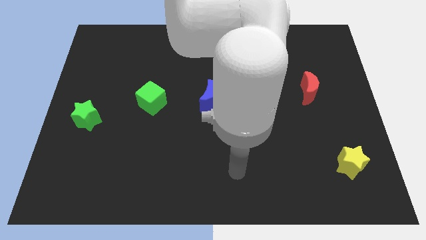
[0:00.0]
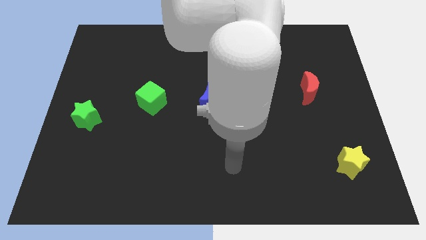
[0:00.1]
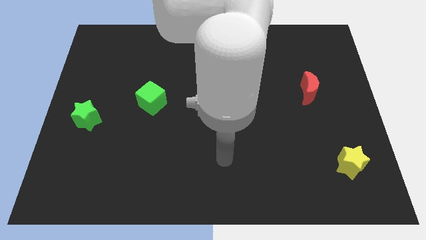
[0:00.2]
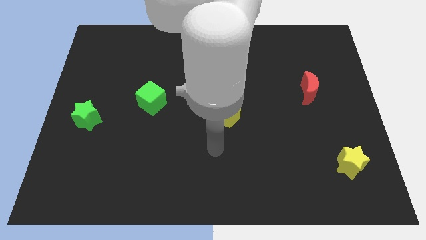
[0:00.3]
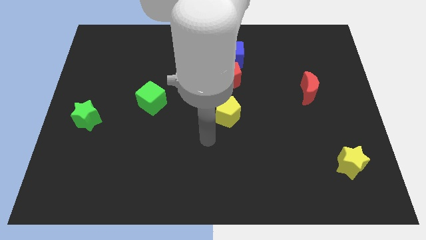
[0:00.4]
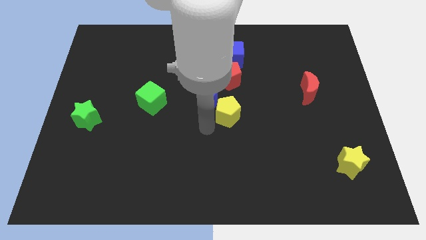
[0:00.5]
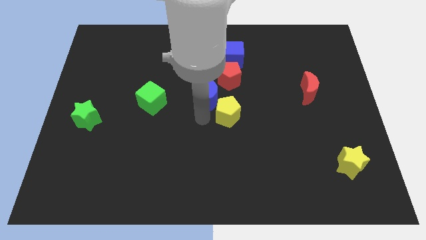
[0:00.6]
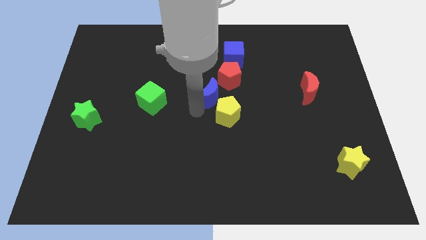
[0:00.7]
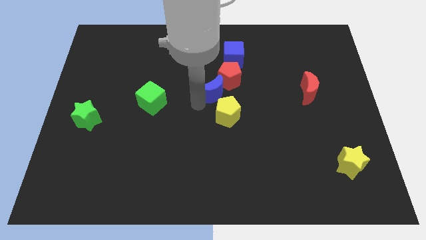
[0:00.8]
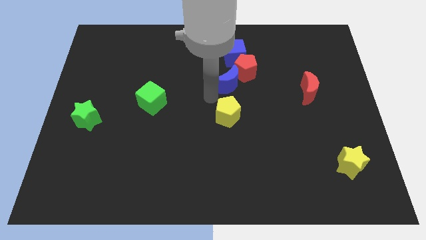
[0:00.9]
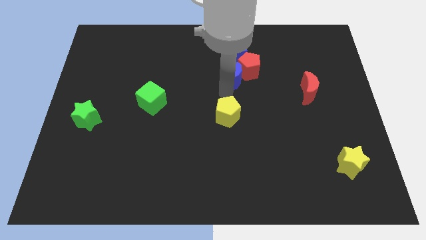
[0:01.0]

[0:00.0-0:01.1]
pull the yellow pentagon apart from the blue moon

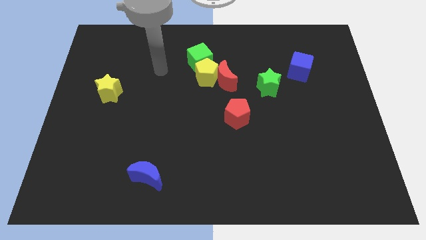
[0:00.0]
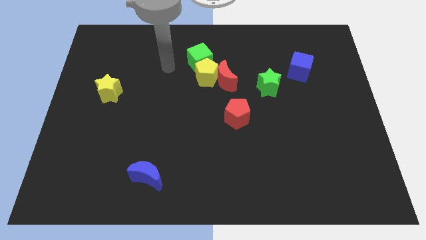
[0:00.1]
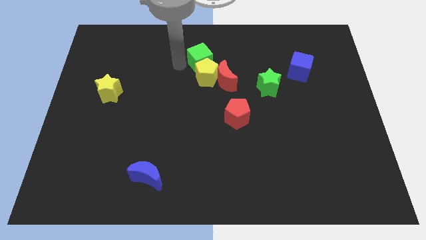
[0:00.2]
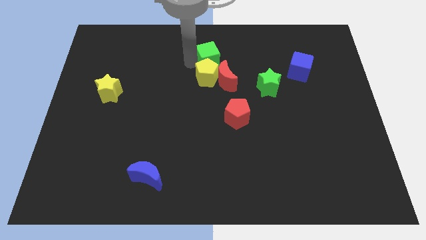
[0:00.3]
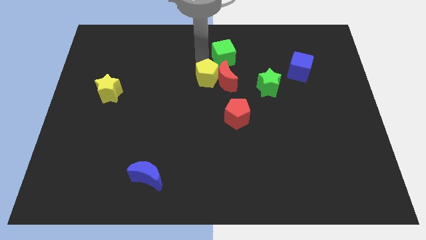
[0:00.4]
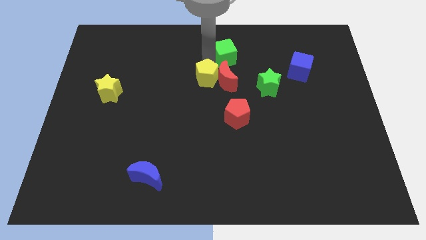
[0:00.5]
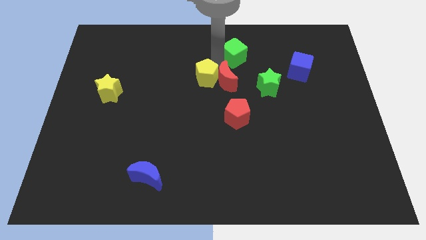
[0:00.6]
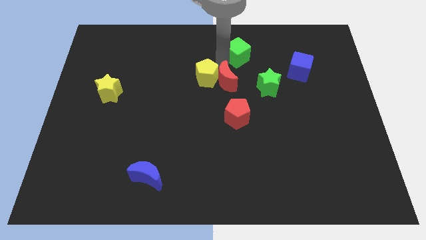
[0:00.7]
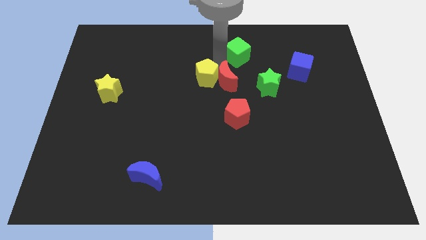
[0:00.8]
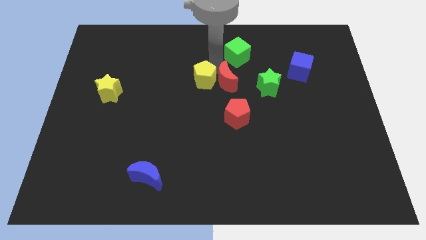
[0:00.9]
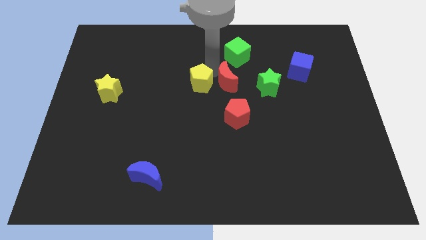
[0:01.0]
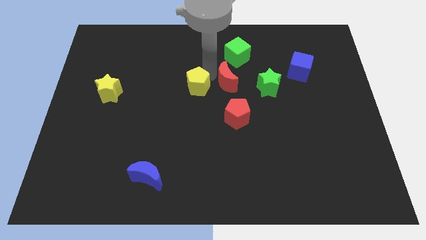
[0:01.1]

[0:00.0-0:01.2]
pull the yellow pentagon apart from the red moon and green cube

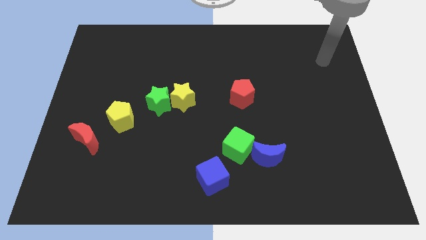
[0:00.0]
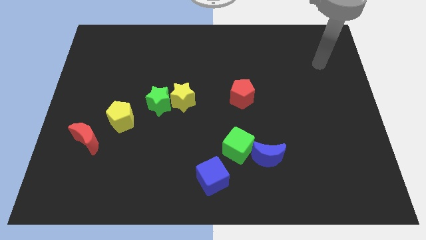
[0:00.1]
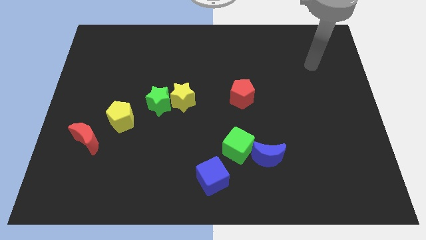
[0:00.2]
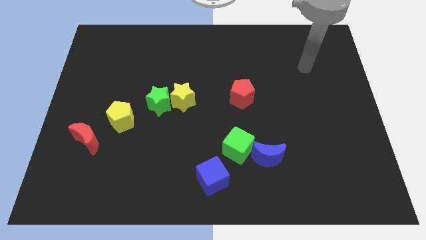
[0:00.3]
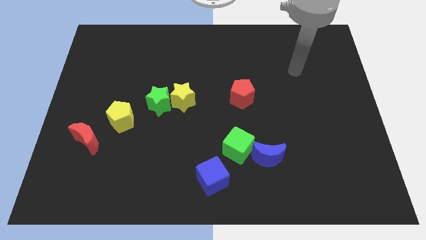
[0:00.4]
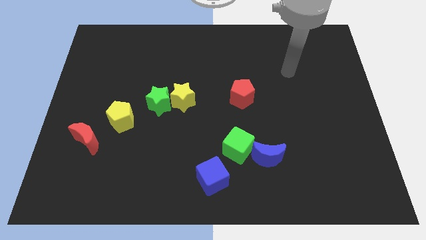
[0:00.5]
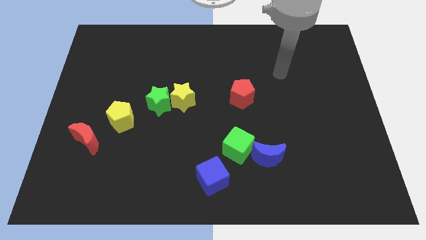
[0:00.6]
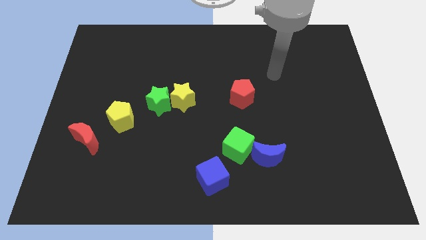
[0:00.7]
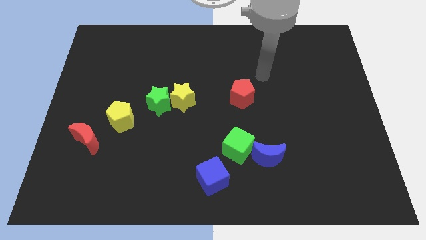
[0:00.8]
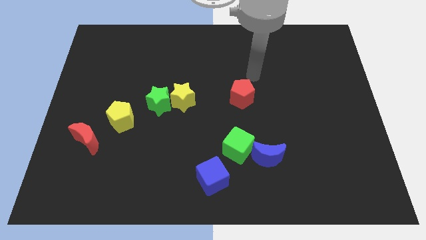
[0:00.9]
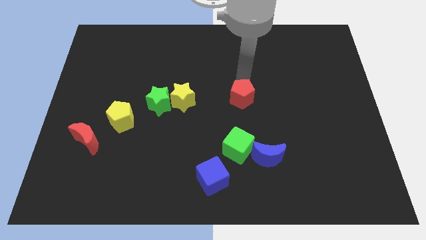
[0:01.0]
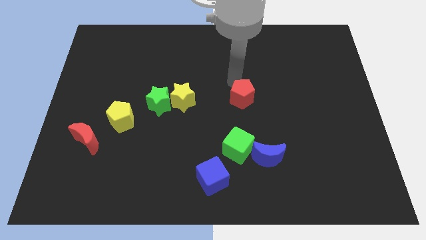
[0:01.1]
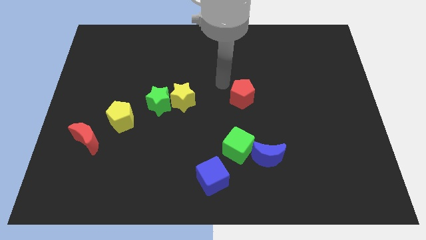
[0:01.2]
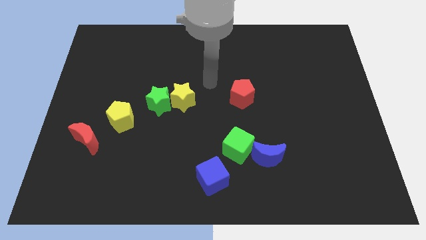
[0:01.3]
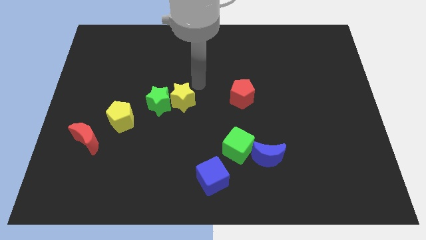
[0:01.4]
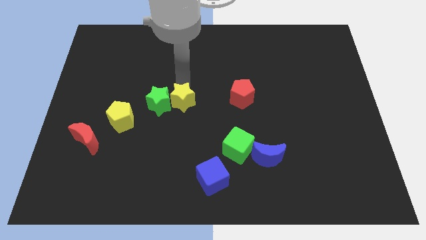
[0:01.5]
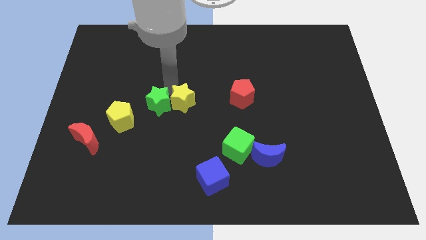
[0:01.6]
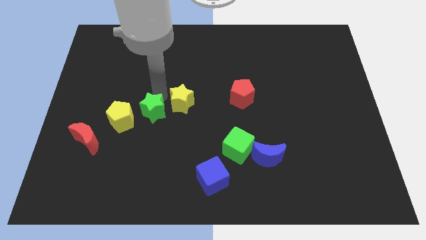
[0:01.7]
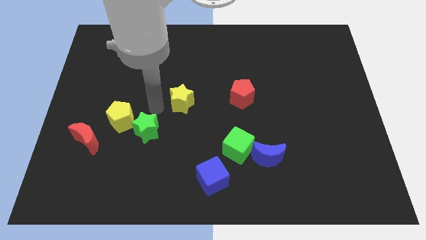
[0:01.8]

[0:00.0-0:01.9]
move the yellow star away from the green star

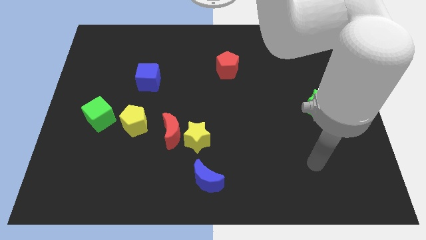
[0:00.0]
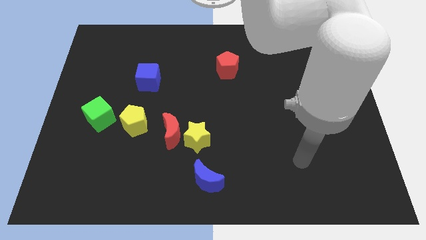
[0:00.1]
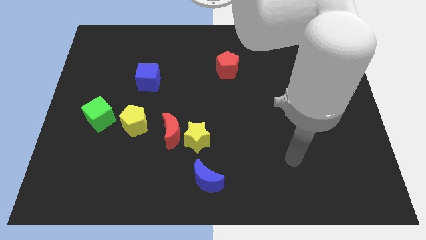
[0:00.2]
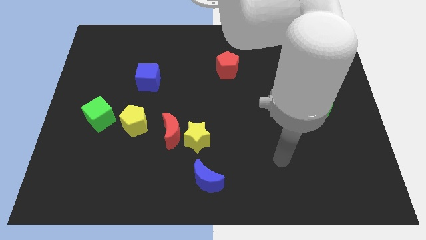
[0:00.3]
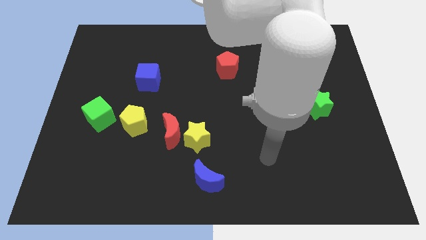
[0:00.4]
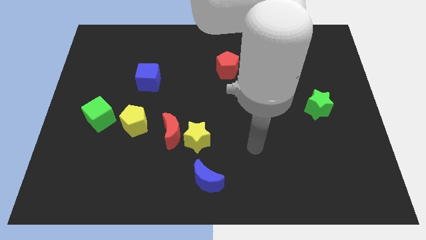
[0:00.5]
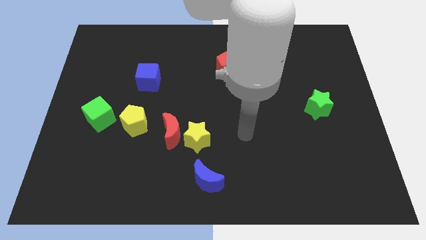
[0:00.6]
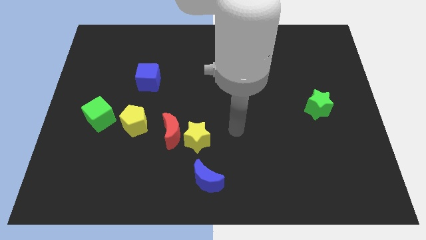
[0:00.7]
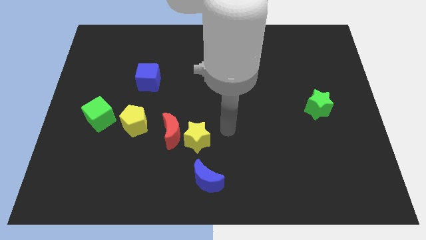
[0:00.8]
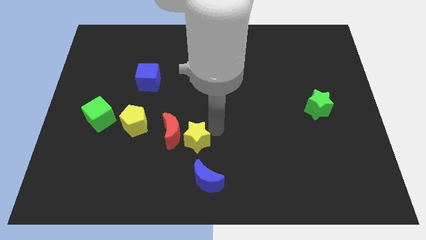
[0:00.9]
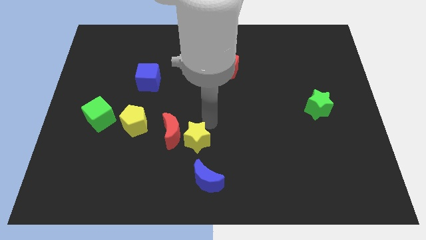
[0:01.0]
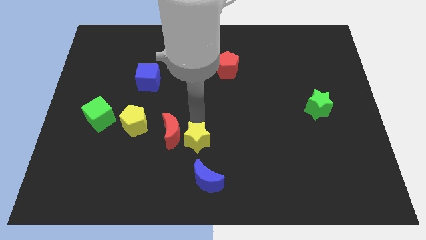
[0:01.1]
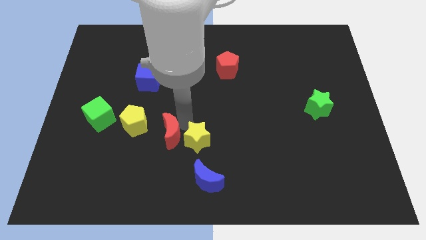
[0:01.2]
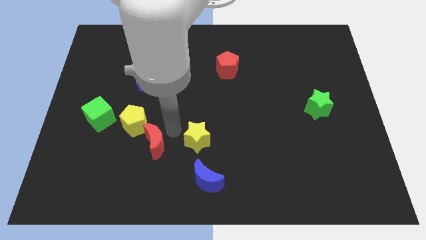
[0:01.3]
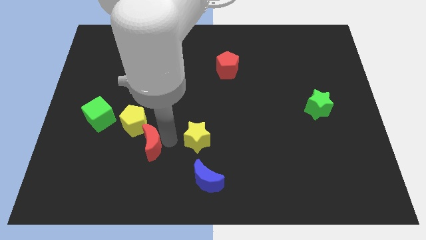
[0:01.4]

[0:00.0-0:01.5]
pull the yellow star apart from the red moon

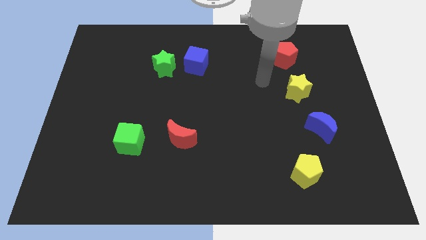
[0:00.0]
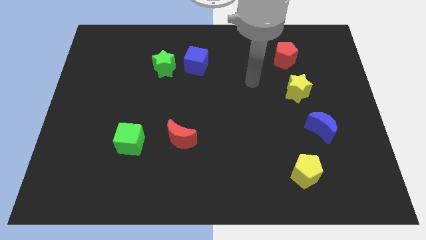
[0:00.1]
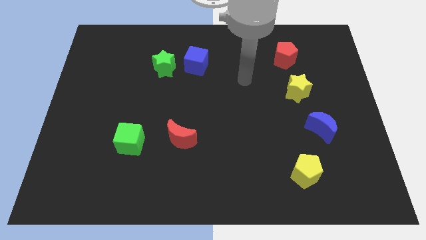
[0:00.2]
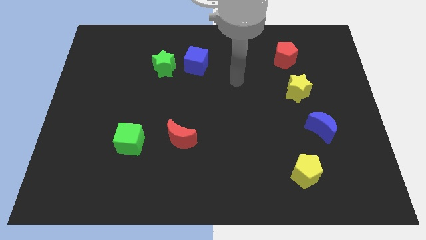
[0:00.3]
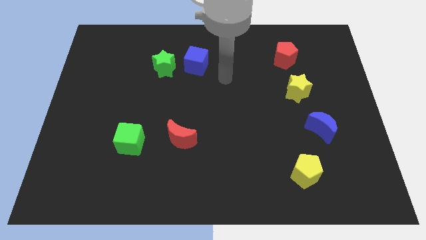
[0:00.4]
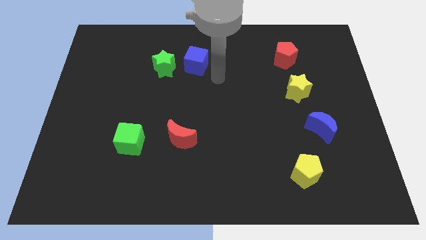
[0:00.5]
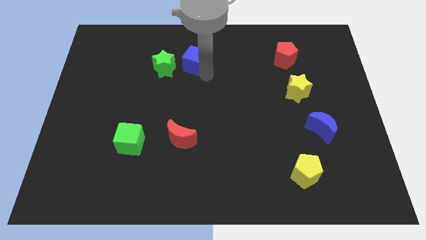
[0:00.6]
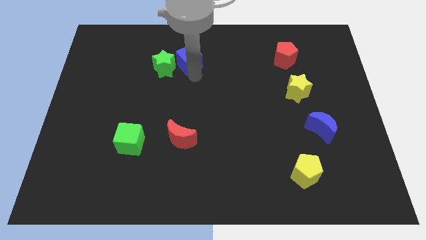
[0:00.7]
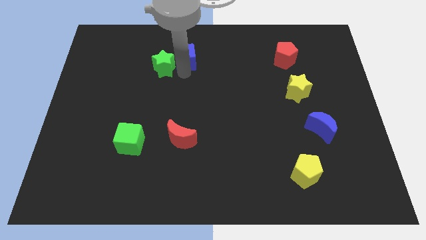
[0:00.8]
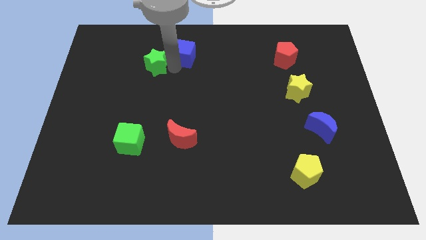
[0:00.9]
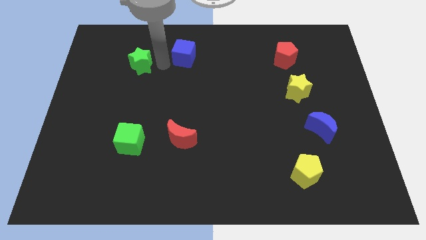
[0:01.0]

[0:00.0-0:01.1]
separate the blue cube from the green star

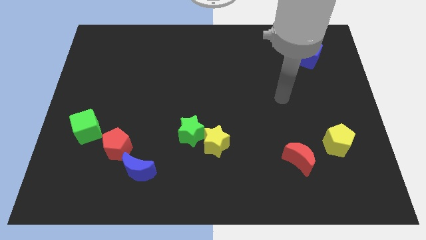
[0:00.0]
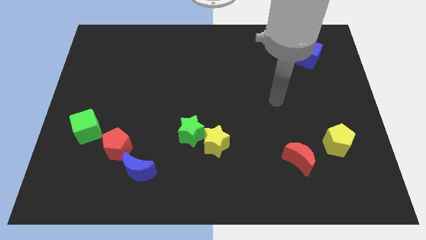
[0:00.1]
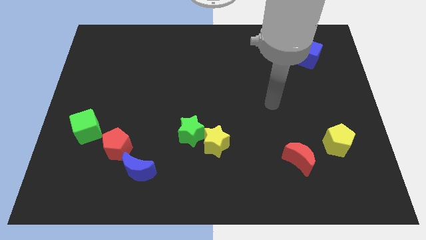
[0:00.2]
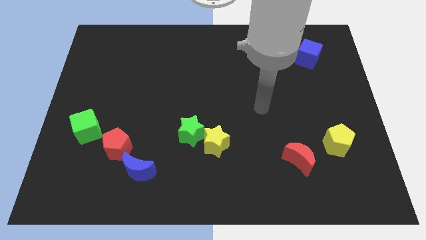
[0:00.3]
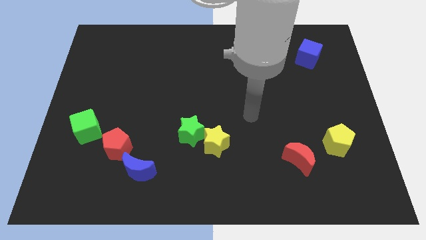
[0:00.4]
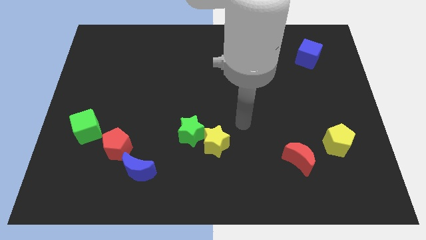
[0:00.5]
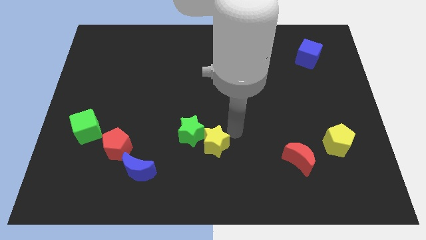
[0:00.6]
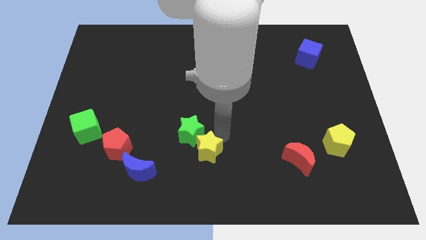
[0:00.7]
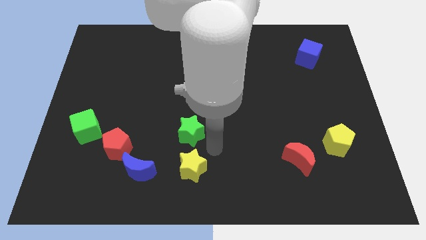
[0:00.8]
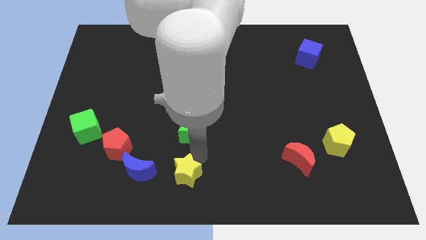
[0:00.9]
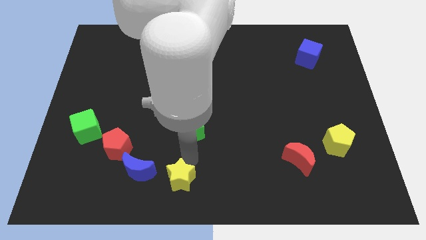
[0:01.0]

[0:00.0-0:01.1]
pull the green star apart from the yellow star

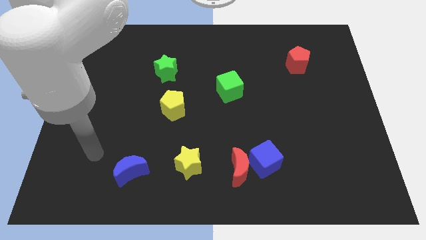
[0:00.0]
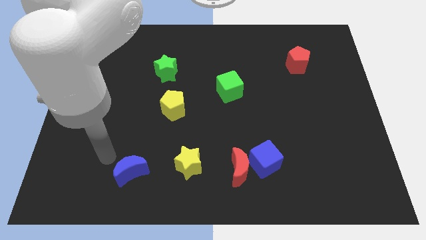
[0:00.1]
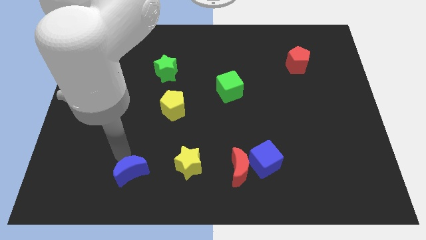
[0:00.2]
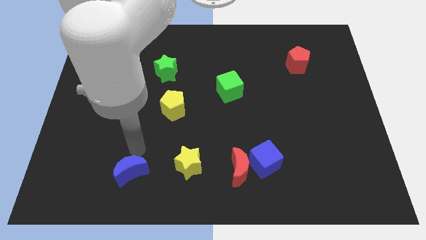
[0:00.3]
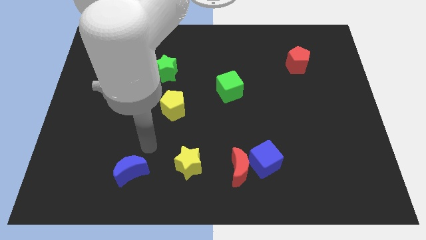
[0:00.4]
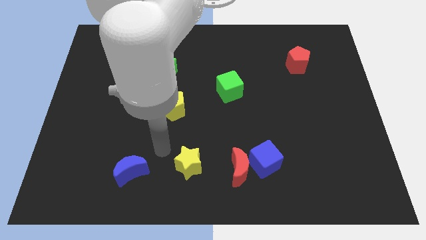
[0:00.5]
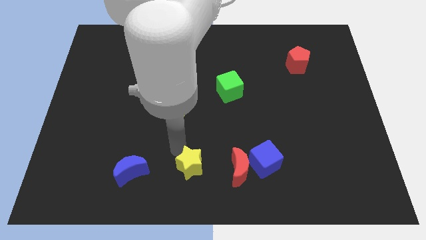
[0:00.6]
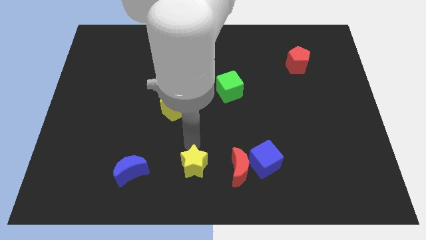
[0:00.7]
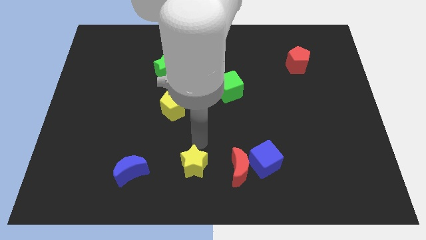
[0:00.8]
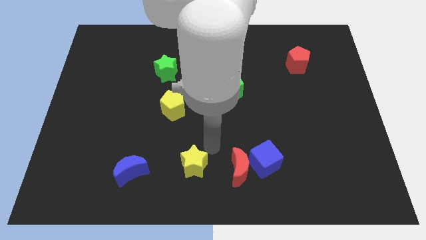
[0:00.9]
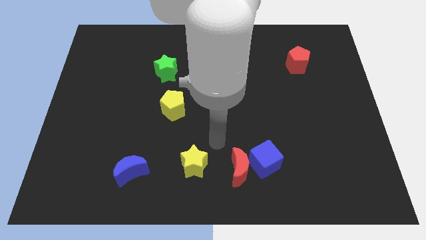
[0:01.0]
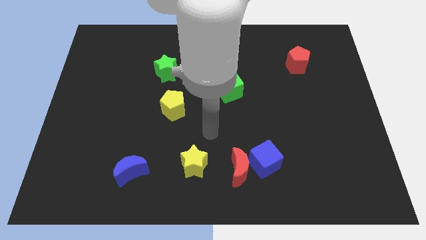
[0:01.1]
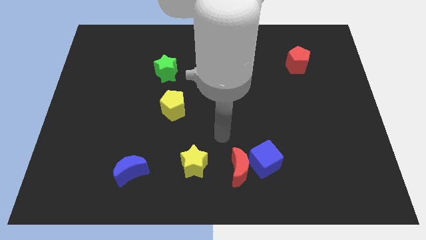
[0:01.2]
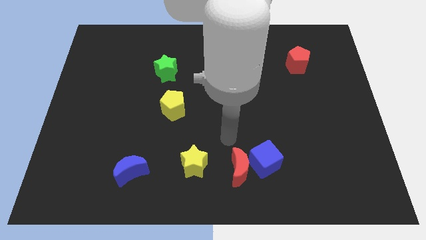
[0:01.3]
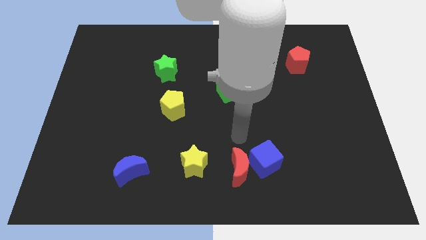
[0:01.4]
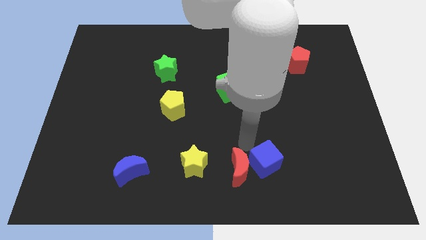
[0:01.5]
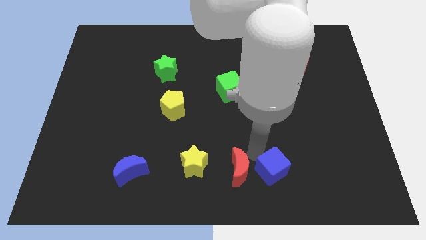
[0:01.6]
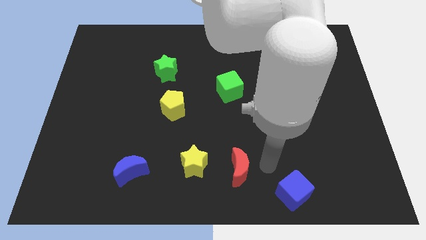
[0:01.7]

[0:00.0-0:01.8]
move the red moon away from the blue cube
